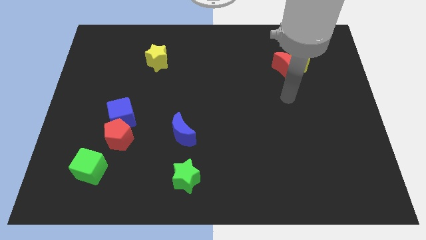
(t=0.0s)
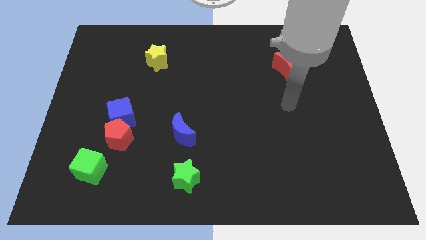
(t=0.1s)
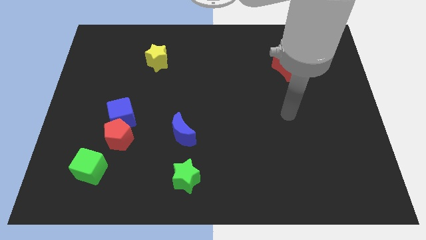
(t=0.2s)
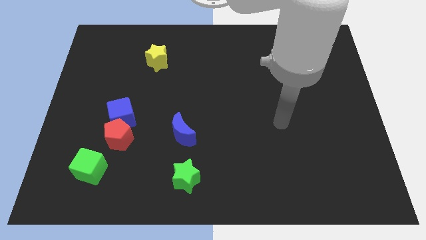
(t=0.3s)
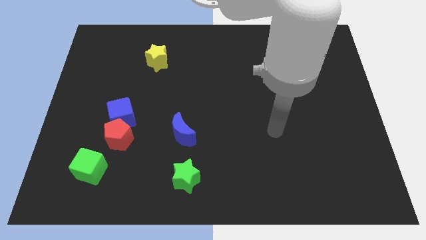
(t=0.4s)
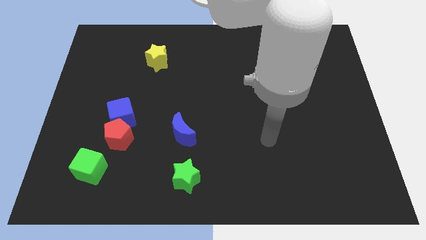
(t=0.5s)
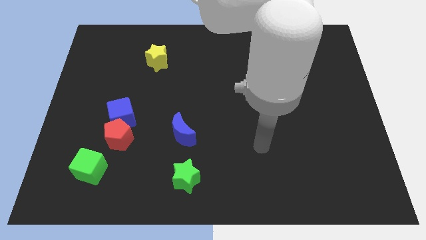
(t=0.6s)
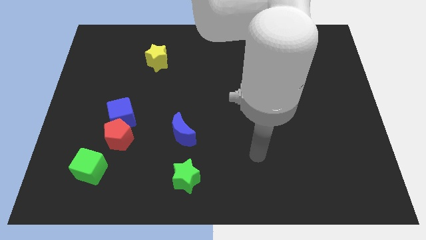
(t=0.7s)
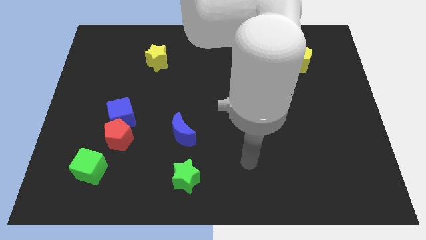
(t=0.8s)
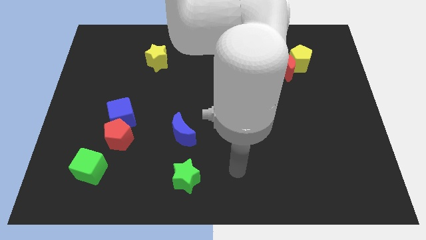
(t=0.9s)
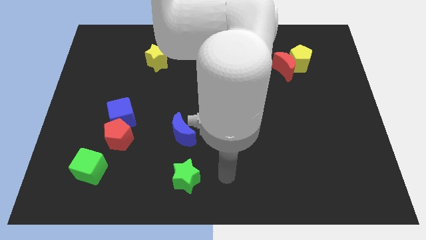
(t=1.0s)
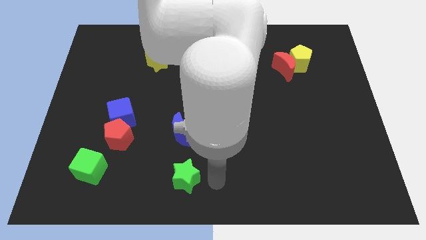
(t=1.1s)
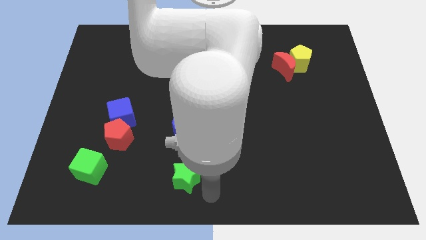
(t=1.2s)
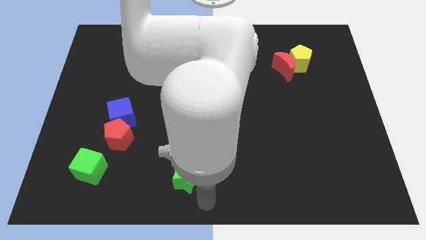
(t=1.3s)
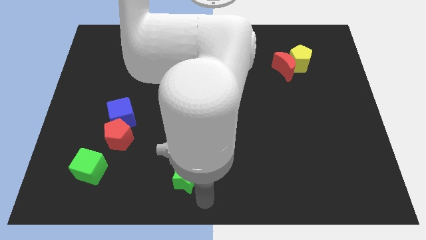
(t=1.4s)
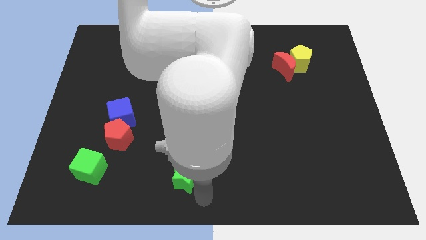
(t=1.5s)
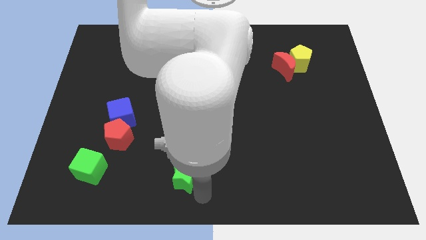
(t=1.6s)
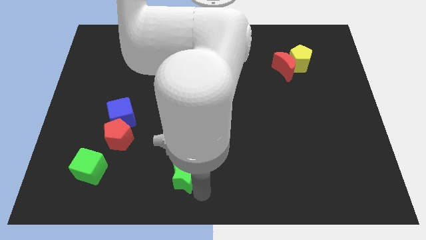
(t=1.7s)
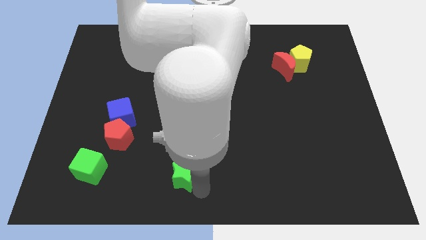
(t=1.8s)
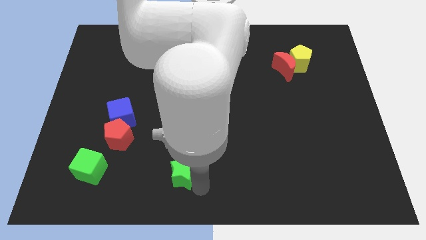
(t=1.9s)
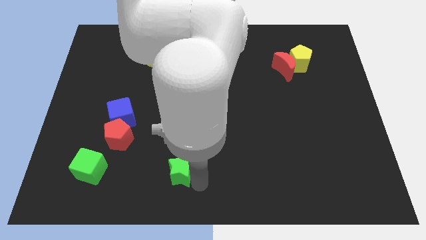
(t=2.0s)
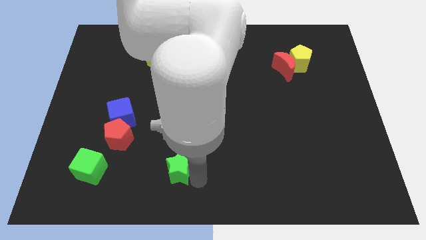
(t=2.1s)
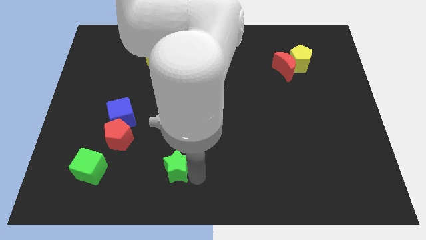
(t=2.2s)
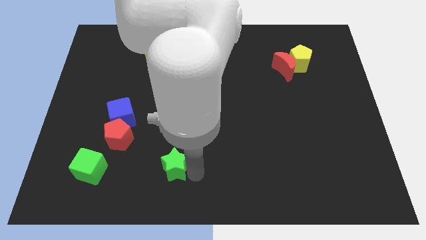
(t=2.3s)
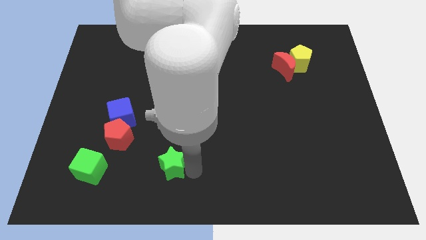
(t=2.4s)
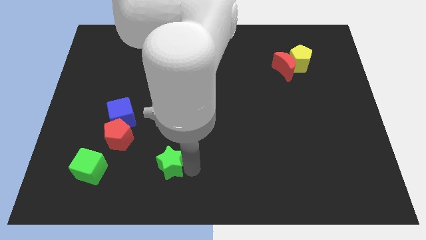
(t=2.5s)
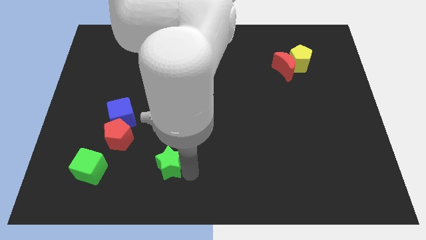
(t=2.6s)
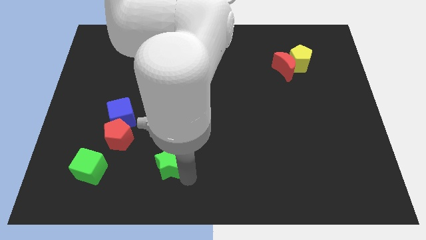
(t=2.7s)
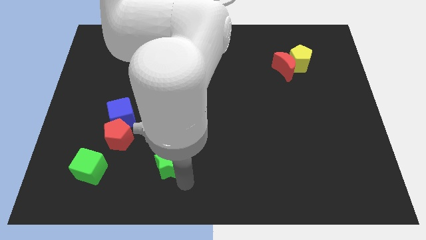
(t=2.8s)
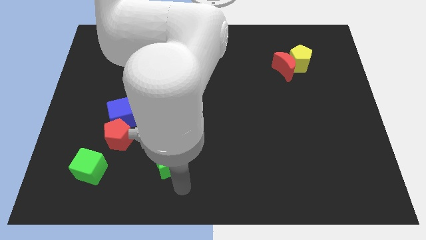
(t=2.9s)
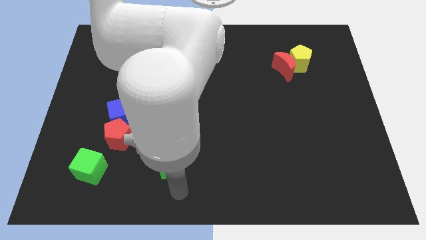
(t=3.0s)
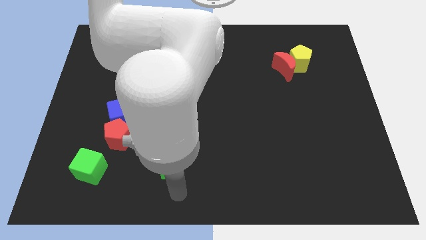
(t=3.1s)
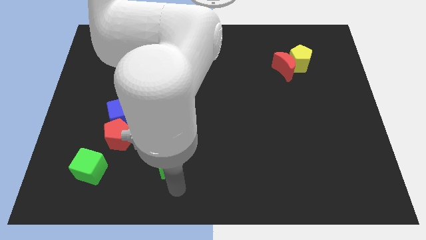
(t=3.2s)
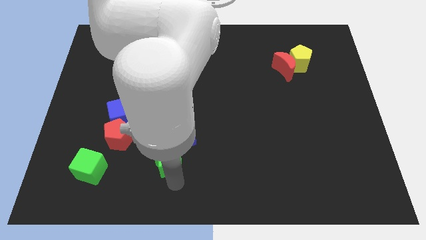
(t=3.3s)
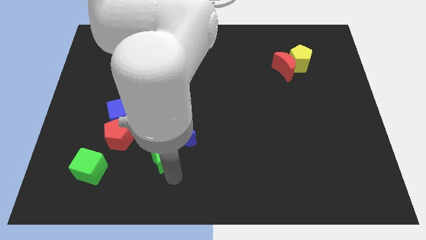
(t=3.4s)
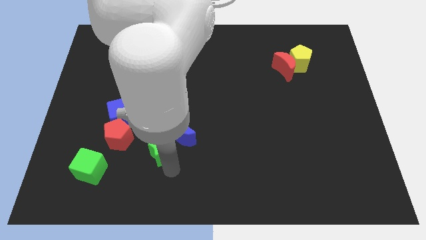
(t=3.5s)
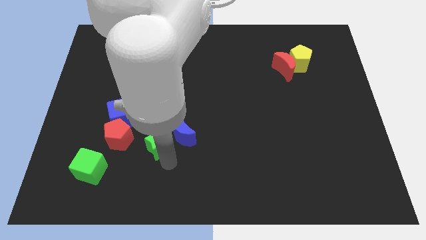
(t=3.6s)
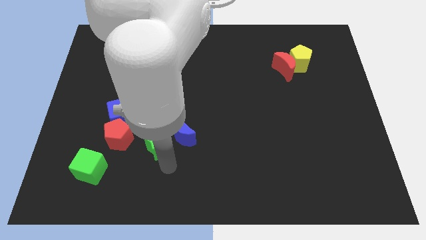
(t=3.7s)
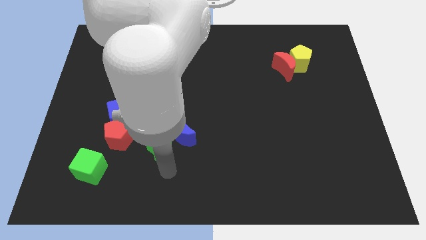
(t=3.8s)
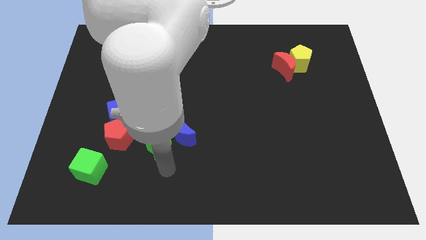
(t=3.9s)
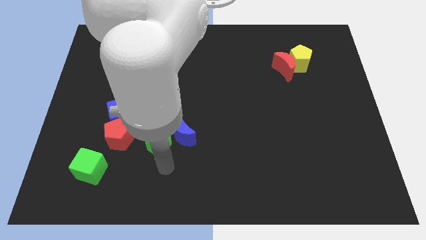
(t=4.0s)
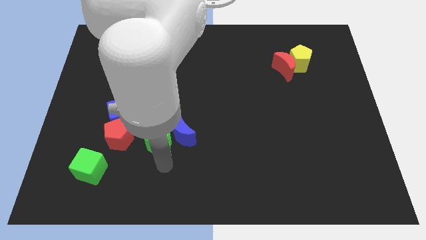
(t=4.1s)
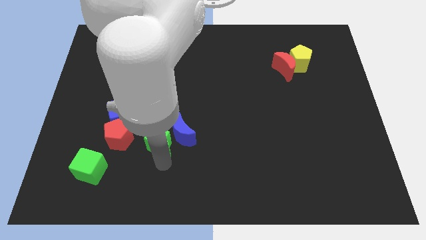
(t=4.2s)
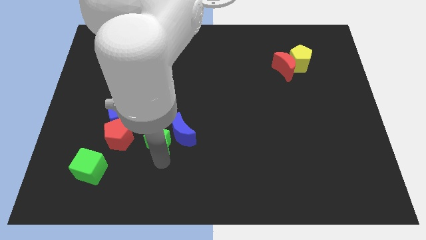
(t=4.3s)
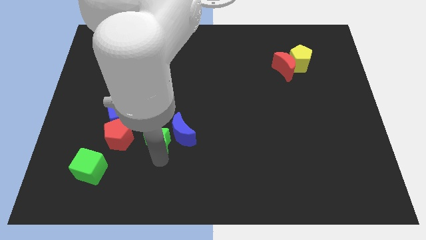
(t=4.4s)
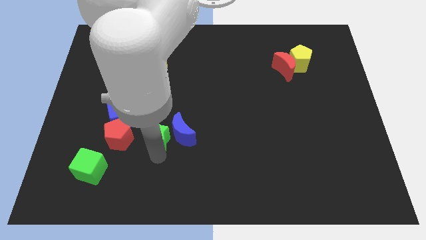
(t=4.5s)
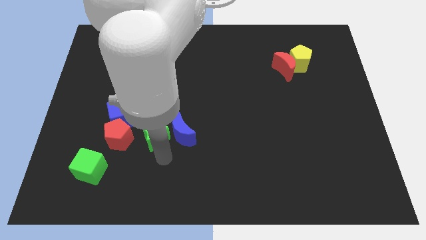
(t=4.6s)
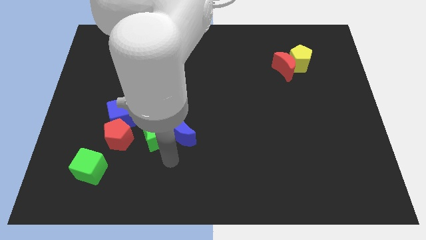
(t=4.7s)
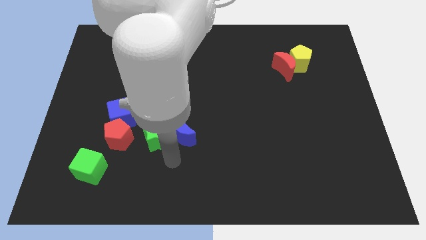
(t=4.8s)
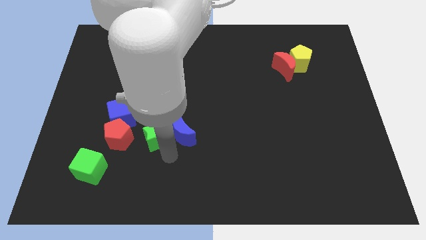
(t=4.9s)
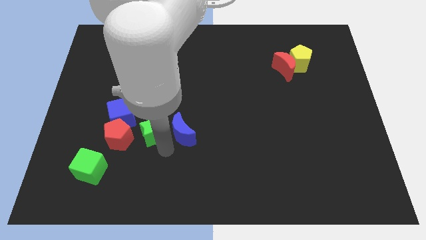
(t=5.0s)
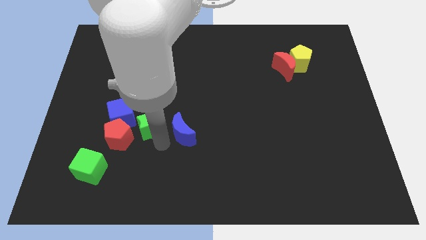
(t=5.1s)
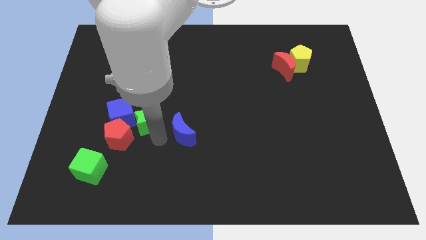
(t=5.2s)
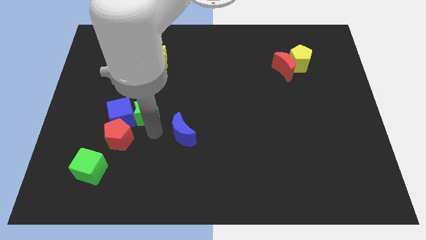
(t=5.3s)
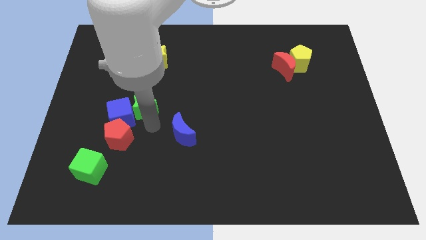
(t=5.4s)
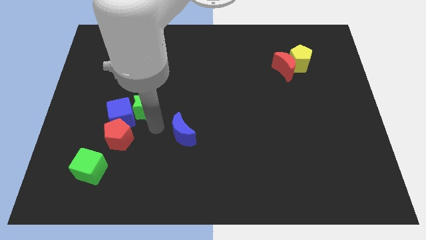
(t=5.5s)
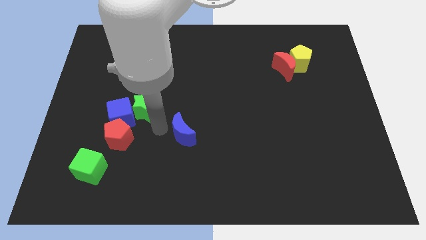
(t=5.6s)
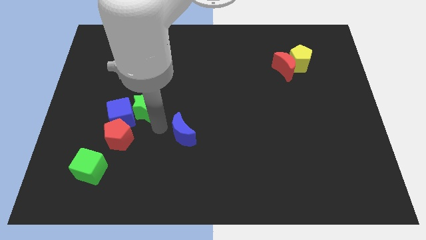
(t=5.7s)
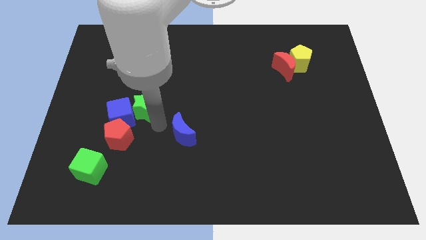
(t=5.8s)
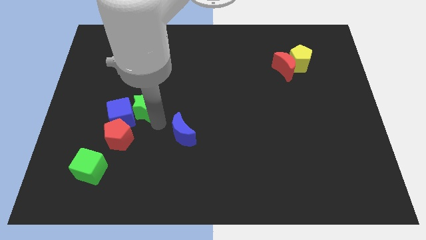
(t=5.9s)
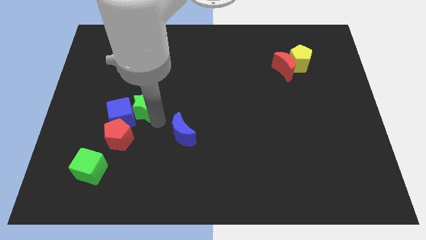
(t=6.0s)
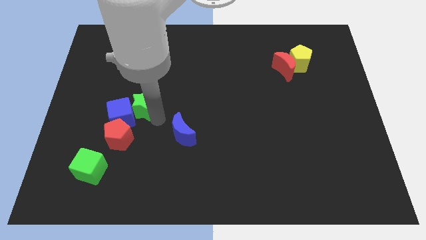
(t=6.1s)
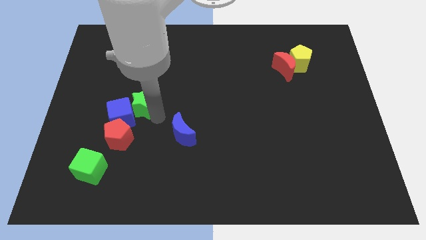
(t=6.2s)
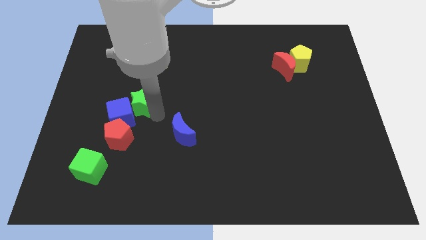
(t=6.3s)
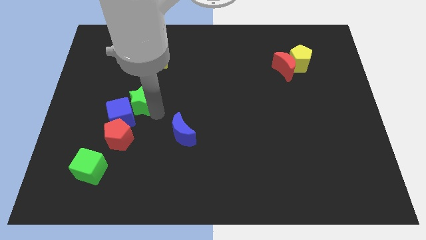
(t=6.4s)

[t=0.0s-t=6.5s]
push the green star to the top of the blue cube

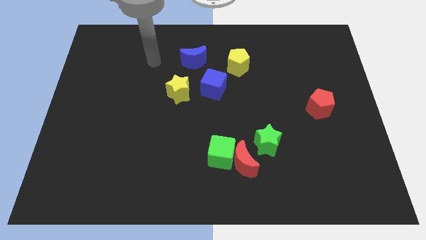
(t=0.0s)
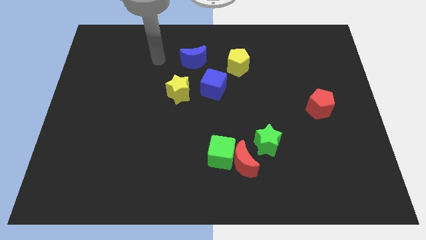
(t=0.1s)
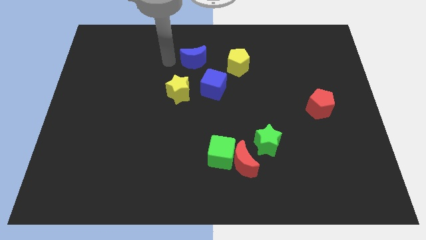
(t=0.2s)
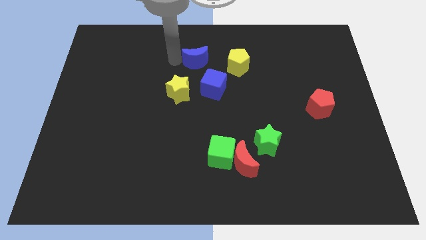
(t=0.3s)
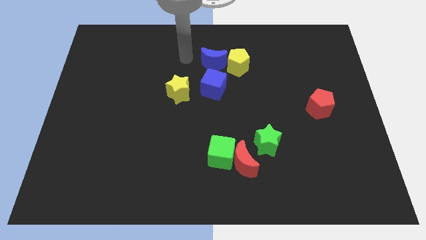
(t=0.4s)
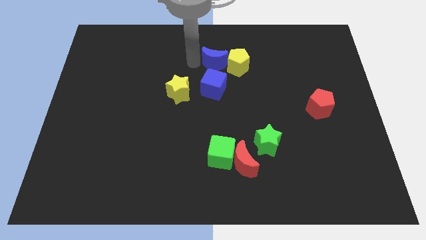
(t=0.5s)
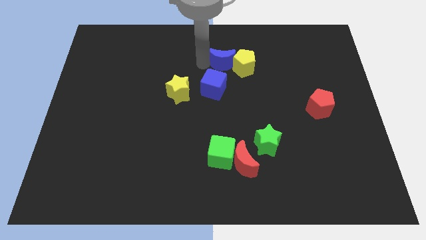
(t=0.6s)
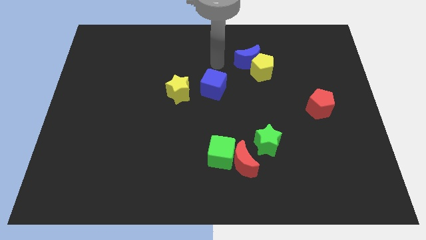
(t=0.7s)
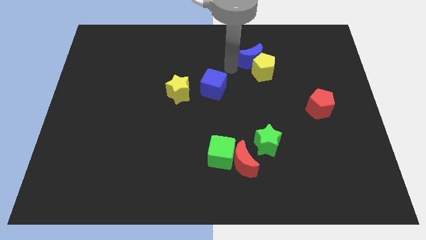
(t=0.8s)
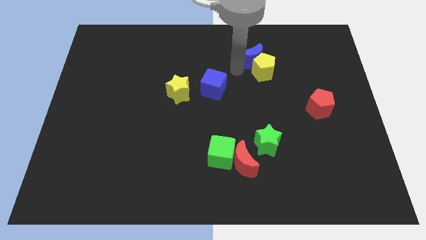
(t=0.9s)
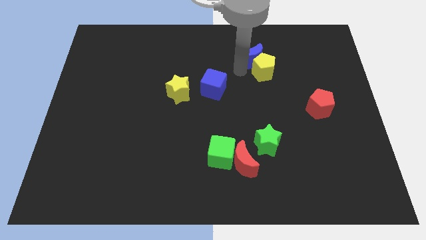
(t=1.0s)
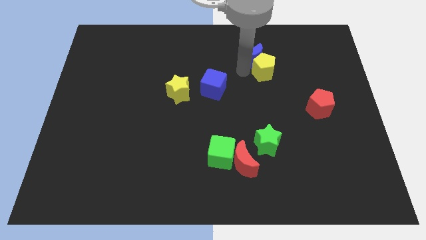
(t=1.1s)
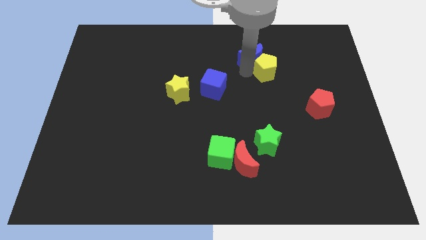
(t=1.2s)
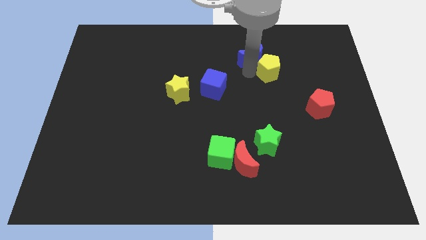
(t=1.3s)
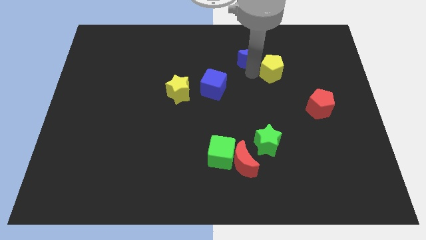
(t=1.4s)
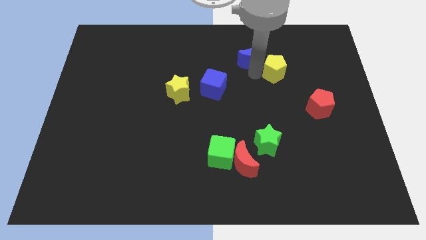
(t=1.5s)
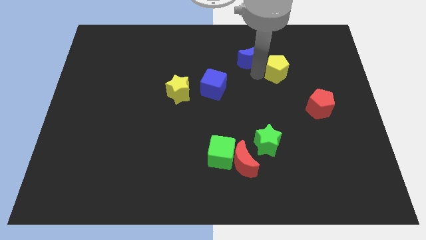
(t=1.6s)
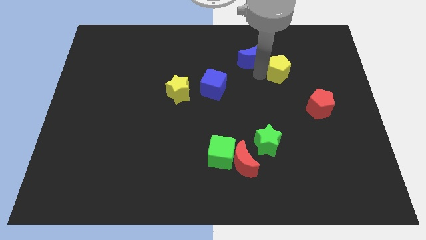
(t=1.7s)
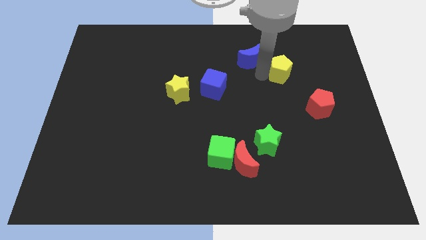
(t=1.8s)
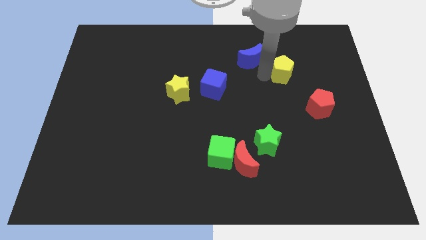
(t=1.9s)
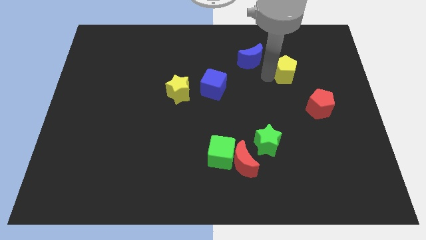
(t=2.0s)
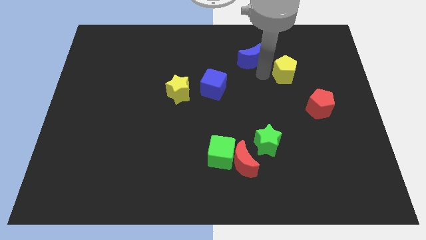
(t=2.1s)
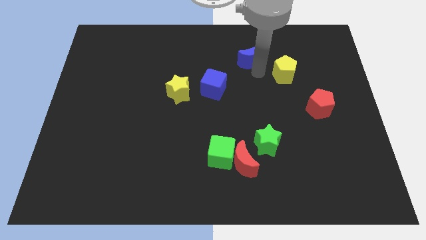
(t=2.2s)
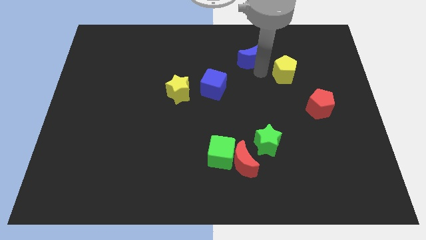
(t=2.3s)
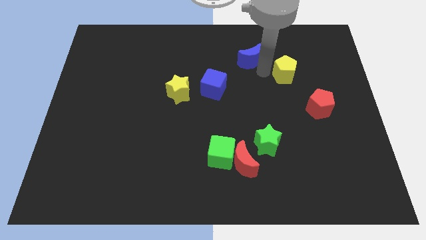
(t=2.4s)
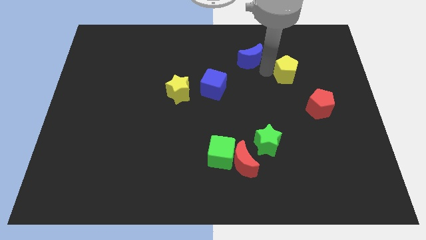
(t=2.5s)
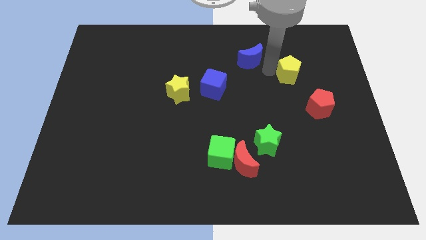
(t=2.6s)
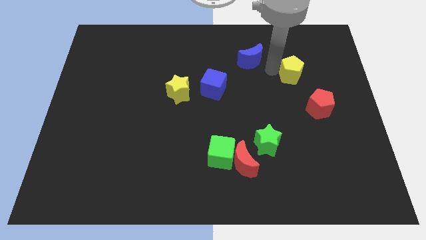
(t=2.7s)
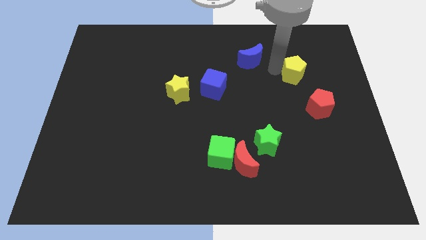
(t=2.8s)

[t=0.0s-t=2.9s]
put the yellow pentagon to the top of the red pentagon
